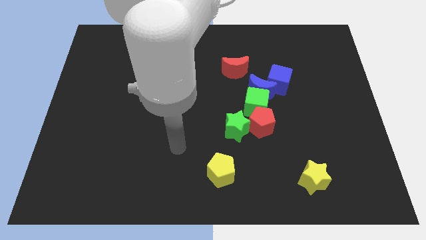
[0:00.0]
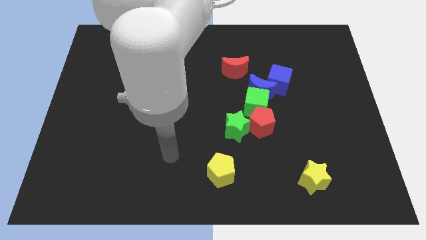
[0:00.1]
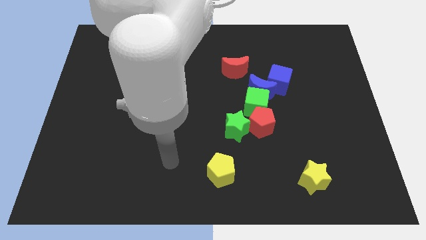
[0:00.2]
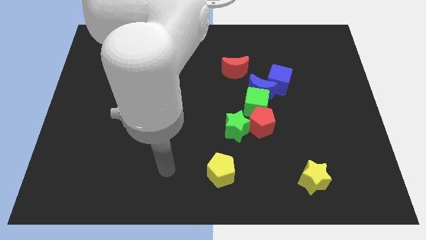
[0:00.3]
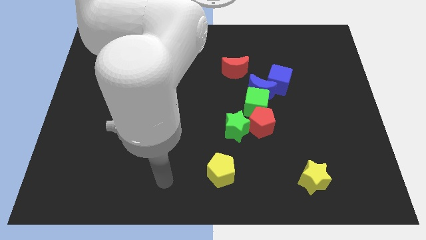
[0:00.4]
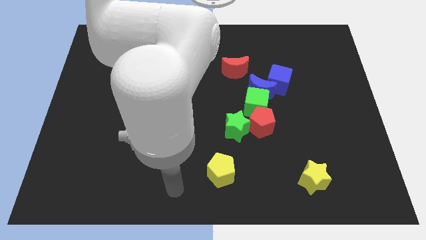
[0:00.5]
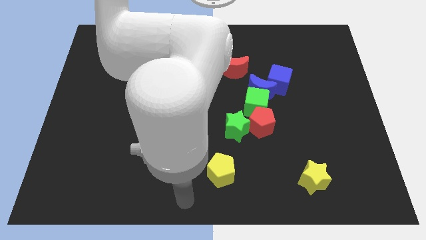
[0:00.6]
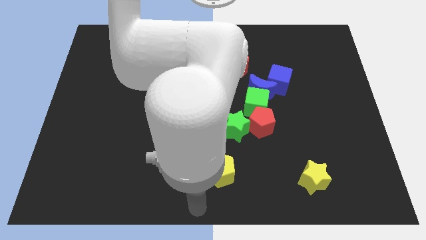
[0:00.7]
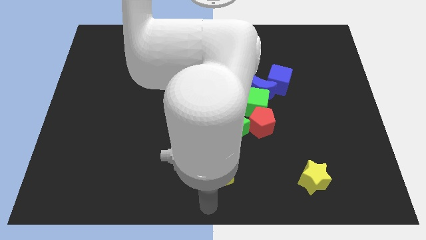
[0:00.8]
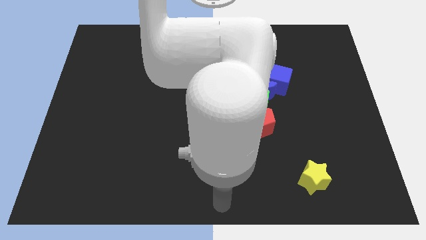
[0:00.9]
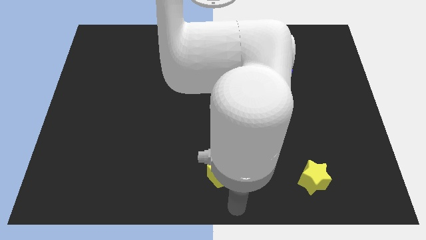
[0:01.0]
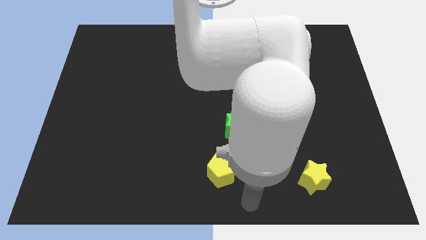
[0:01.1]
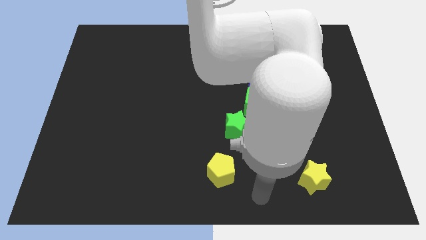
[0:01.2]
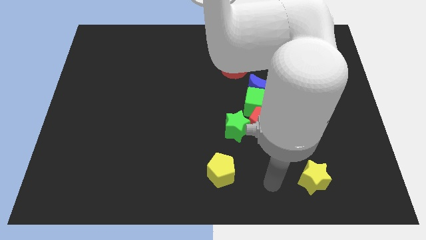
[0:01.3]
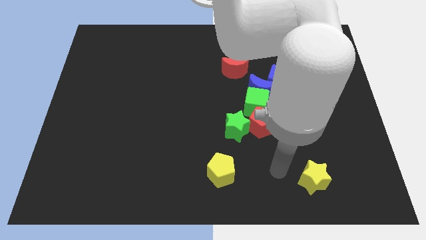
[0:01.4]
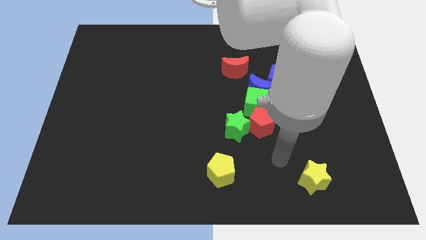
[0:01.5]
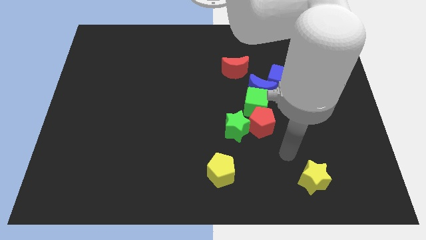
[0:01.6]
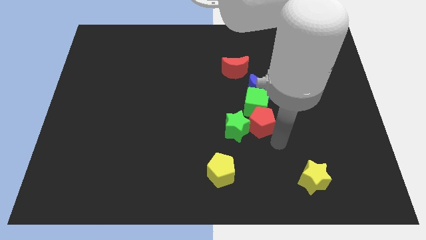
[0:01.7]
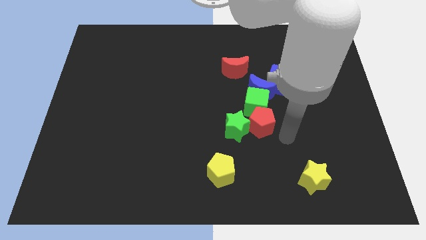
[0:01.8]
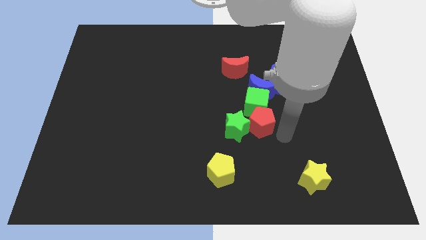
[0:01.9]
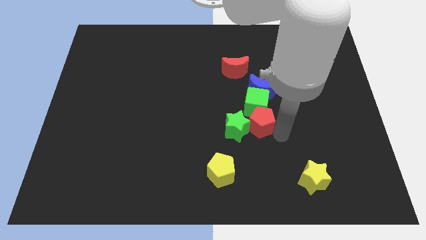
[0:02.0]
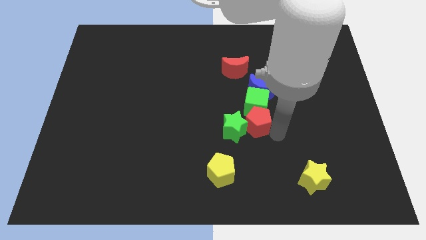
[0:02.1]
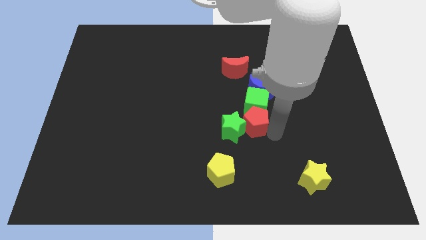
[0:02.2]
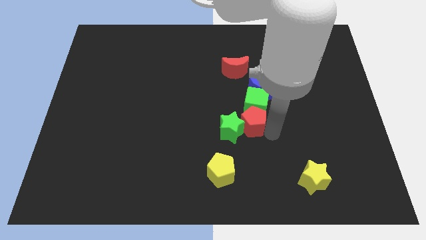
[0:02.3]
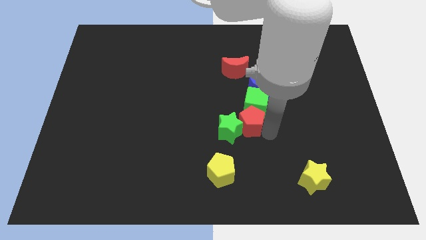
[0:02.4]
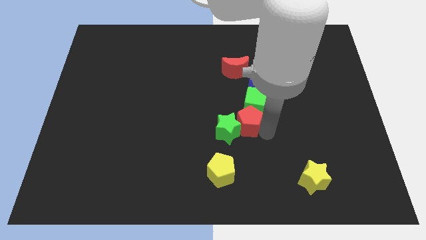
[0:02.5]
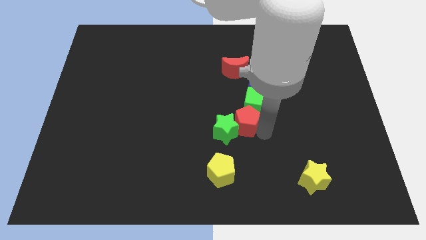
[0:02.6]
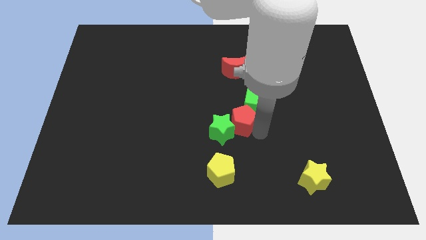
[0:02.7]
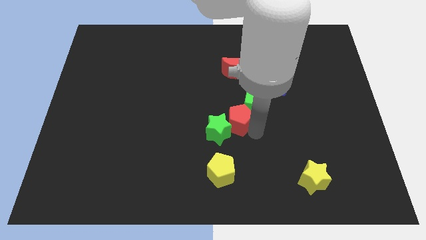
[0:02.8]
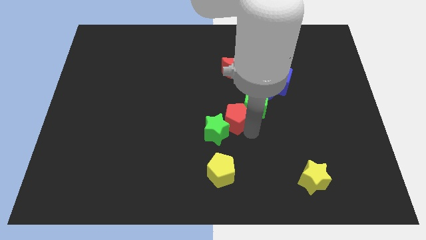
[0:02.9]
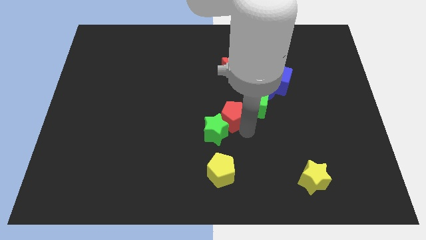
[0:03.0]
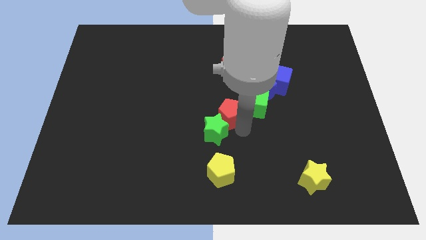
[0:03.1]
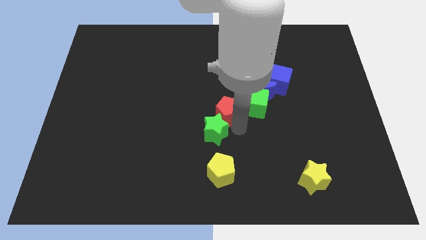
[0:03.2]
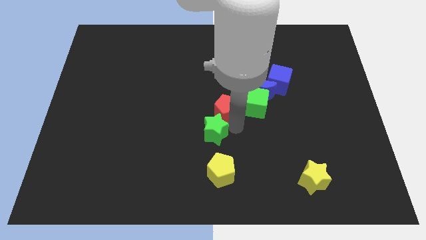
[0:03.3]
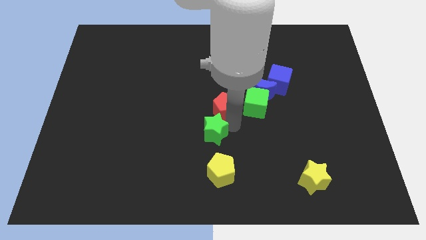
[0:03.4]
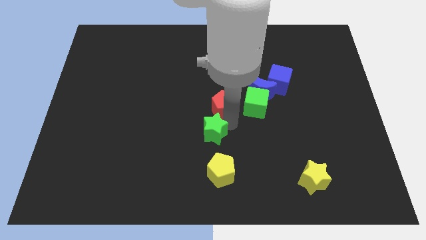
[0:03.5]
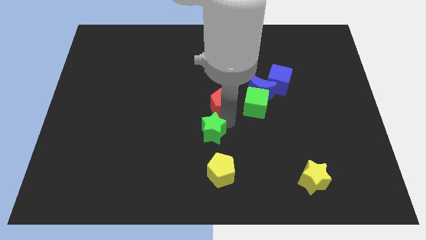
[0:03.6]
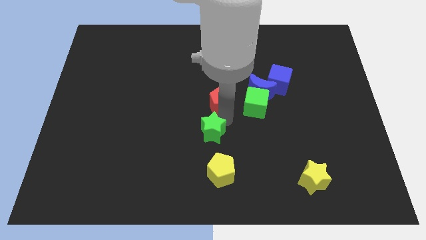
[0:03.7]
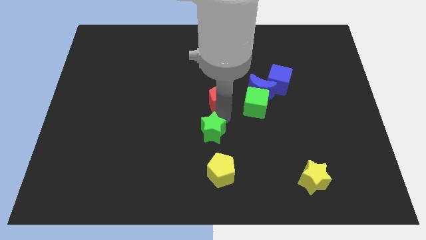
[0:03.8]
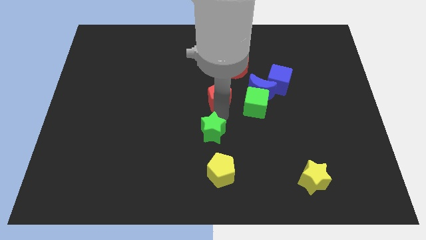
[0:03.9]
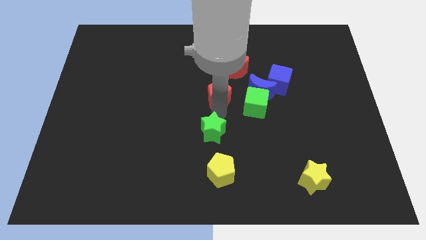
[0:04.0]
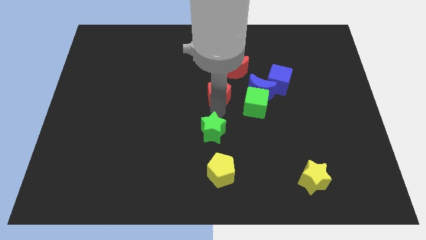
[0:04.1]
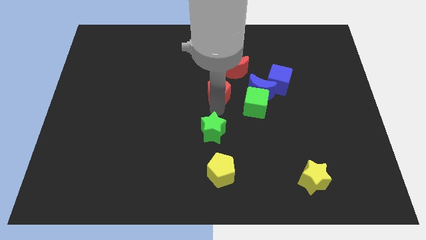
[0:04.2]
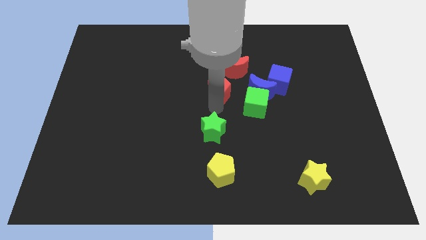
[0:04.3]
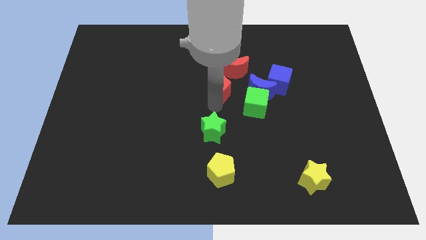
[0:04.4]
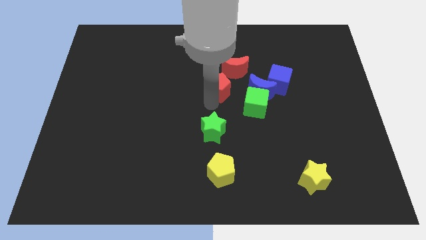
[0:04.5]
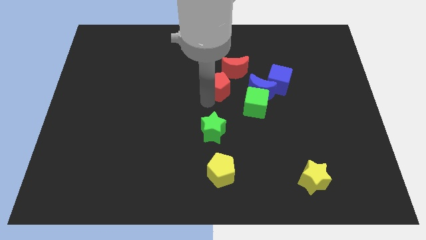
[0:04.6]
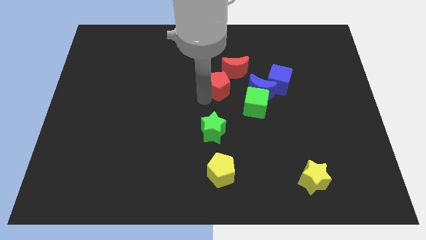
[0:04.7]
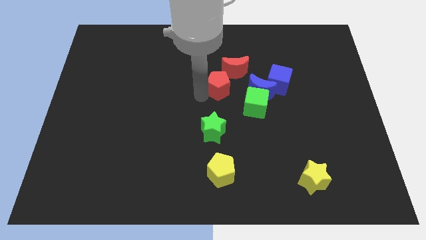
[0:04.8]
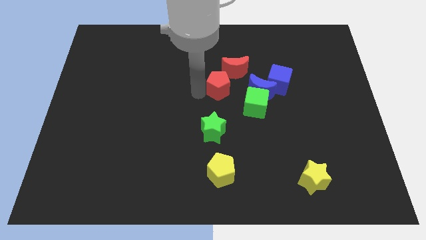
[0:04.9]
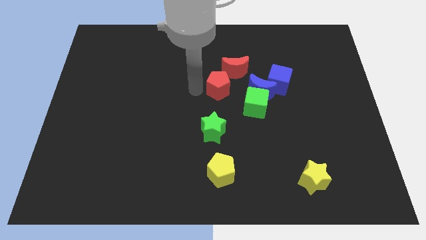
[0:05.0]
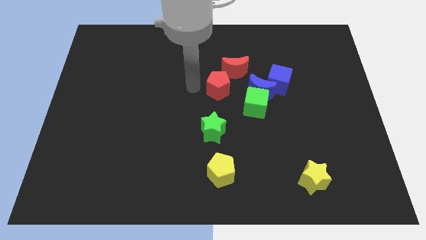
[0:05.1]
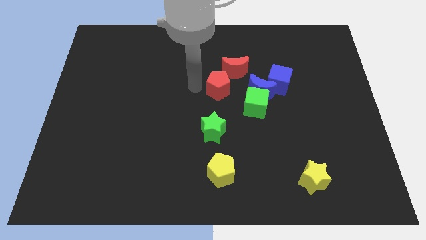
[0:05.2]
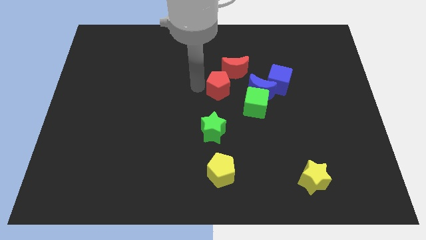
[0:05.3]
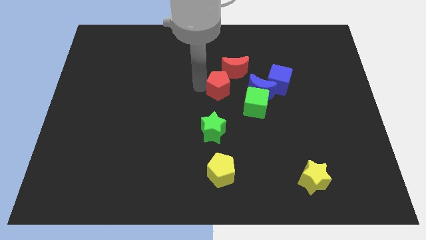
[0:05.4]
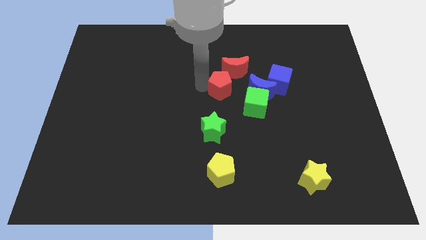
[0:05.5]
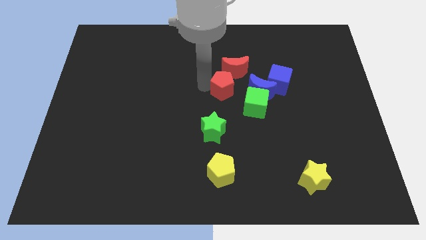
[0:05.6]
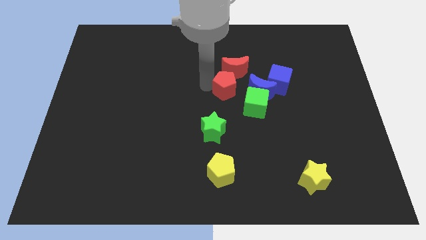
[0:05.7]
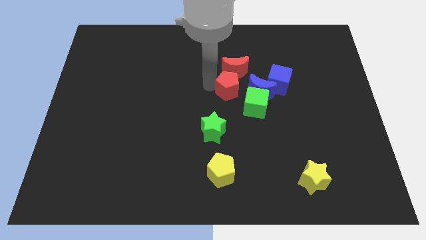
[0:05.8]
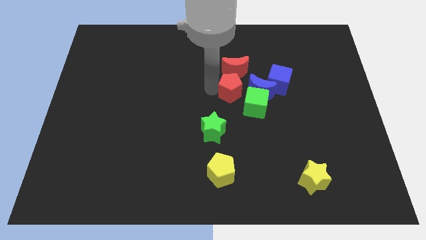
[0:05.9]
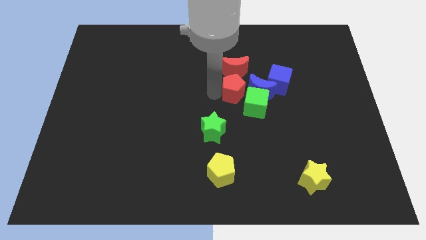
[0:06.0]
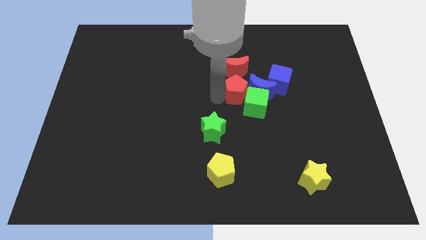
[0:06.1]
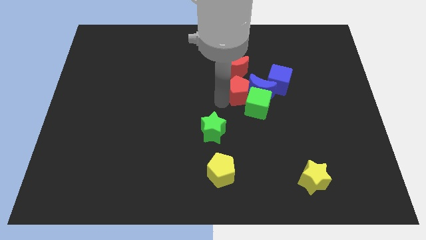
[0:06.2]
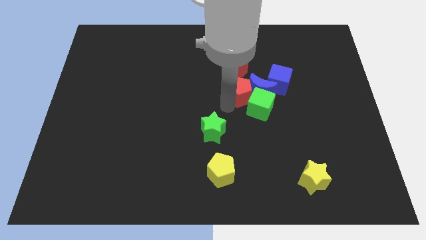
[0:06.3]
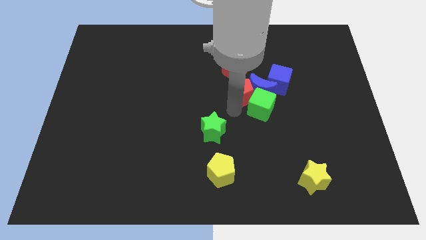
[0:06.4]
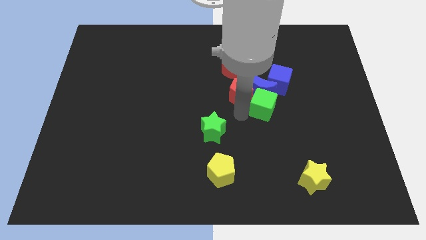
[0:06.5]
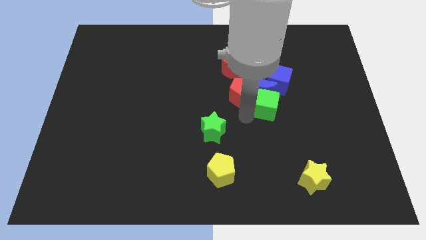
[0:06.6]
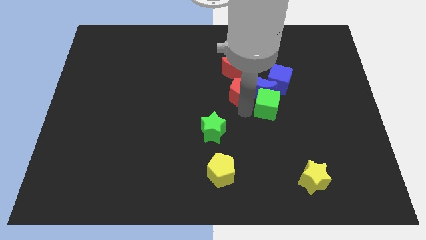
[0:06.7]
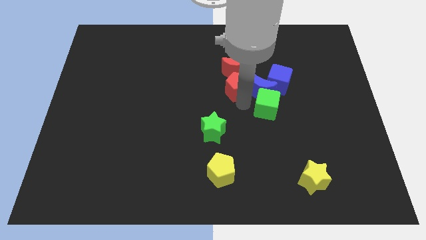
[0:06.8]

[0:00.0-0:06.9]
push the red pentagon to the red moon
